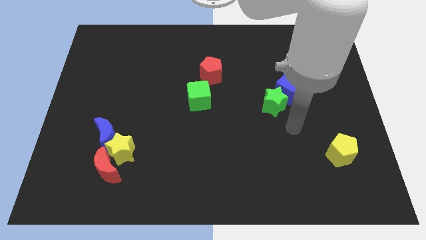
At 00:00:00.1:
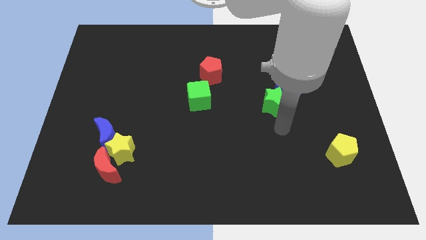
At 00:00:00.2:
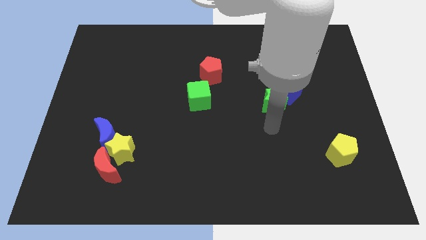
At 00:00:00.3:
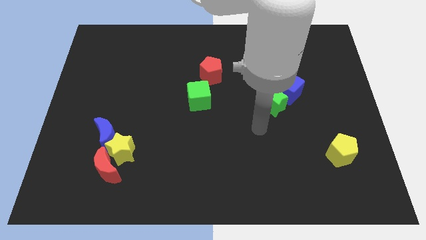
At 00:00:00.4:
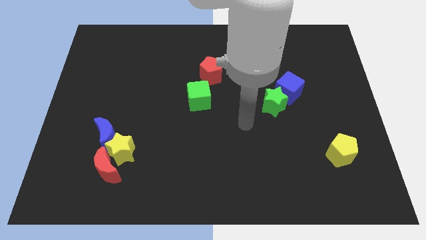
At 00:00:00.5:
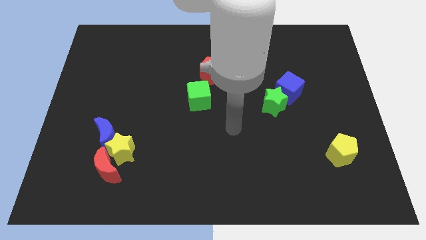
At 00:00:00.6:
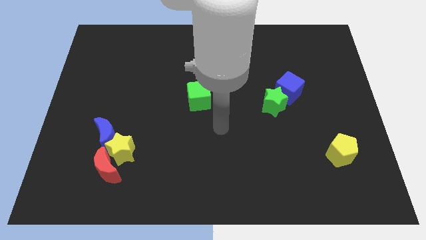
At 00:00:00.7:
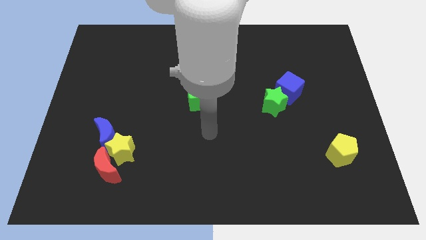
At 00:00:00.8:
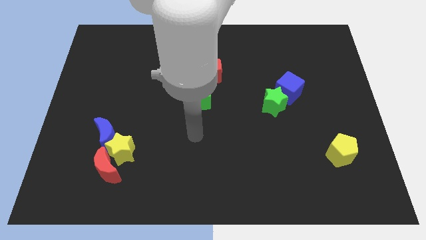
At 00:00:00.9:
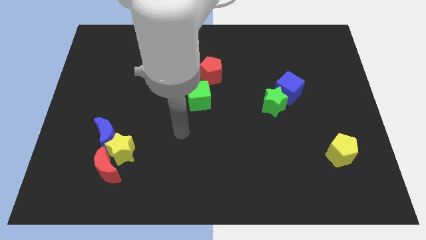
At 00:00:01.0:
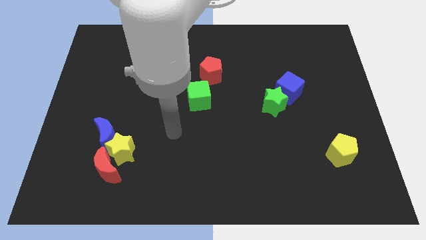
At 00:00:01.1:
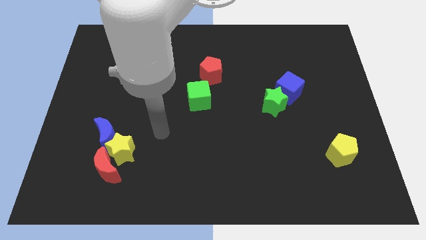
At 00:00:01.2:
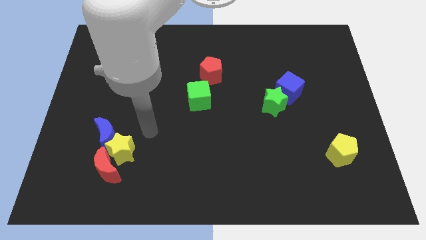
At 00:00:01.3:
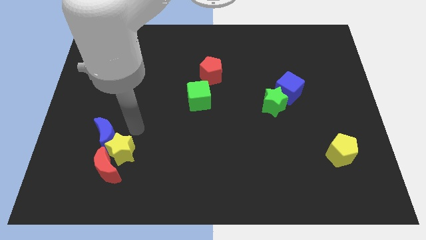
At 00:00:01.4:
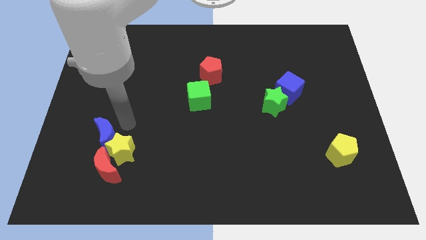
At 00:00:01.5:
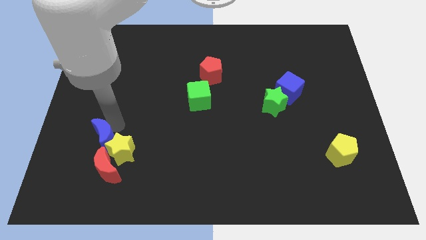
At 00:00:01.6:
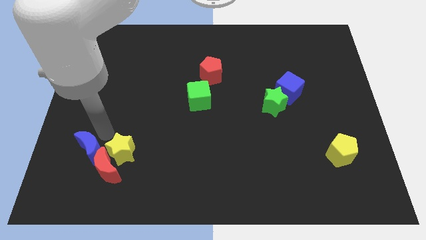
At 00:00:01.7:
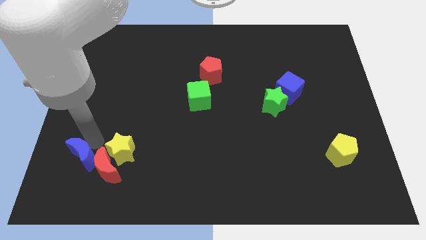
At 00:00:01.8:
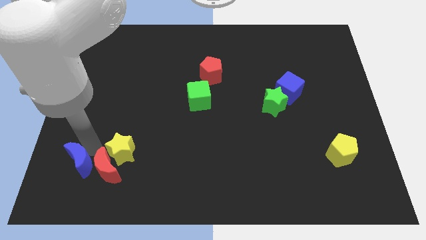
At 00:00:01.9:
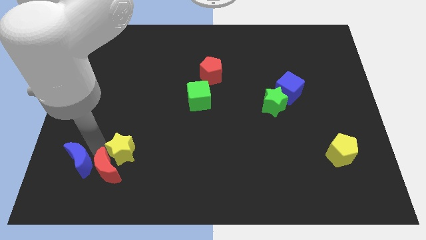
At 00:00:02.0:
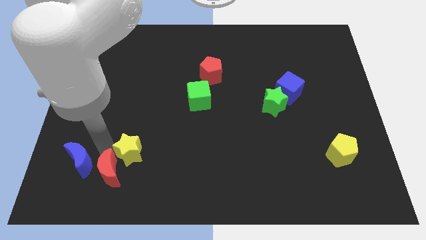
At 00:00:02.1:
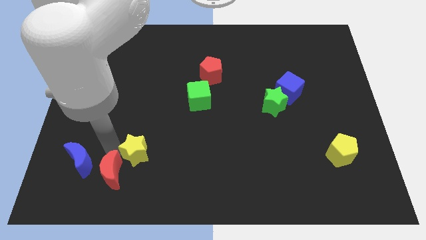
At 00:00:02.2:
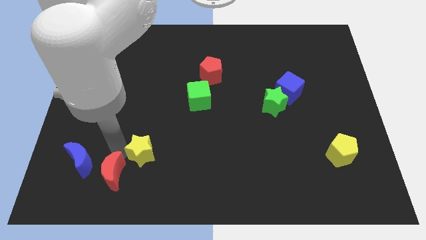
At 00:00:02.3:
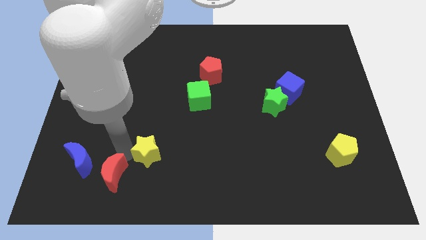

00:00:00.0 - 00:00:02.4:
pull the yellow star apart from the red moon and blue moon

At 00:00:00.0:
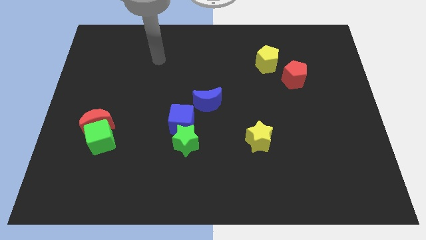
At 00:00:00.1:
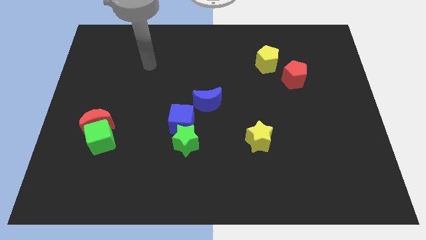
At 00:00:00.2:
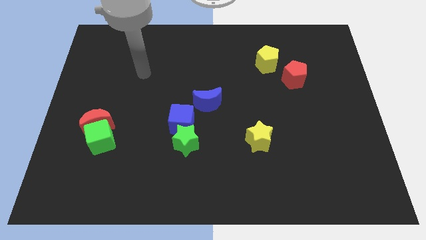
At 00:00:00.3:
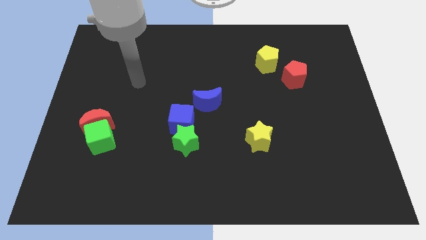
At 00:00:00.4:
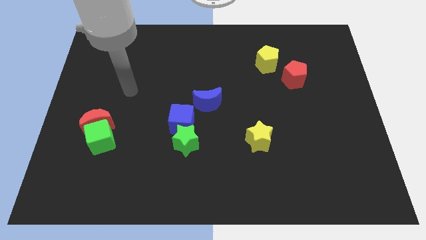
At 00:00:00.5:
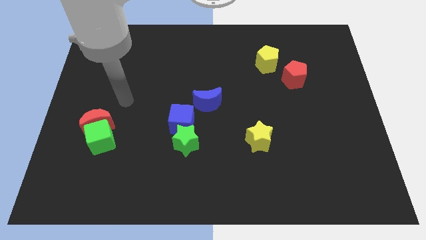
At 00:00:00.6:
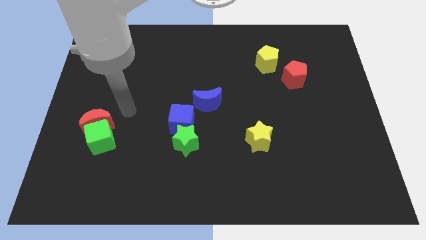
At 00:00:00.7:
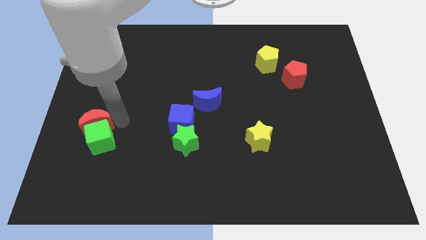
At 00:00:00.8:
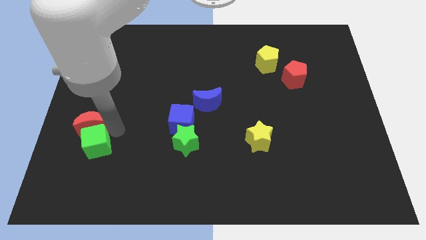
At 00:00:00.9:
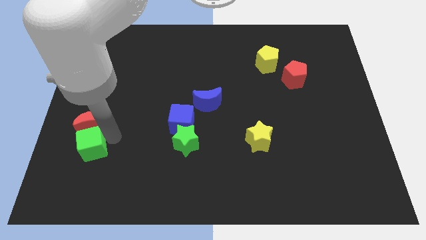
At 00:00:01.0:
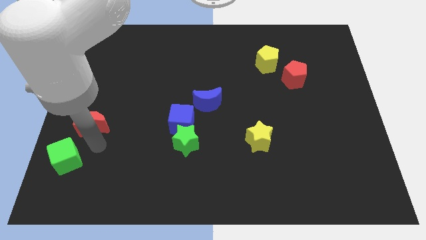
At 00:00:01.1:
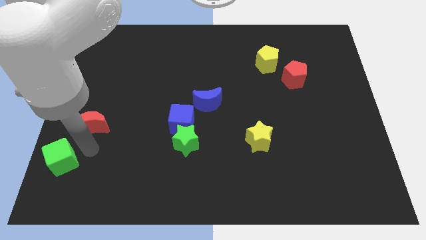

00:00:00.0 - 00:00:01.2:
pull the red moon apart from the green cube

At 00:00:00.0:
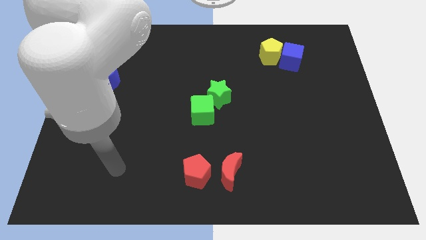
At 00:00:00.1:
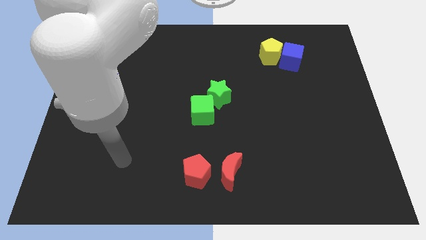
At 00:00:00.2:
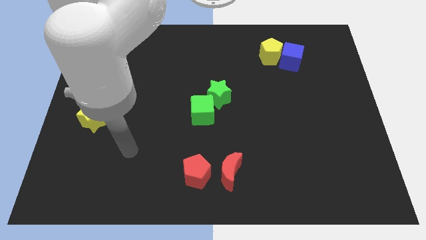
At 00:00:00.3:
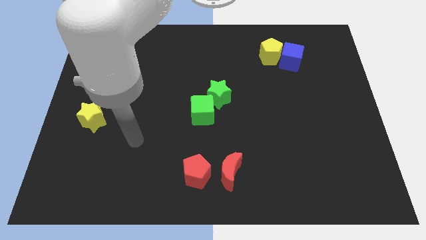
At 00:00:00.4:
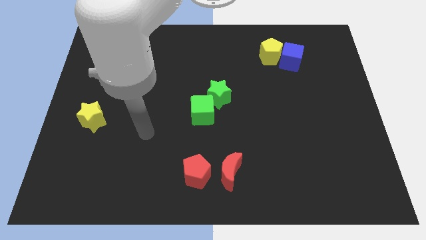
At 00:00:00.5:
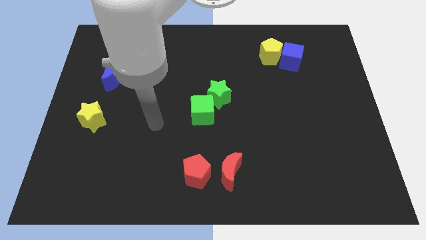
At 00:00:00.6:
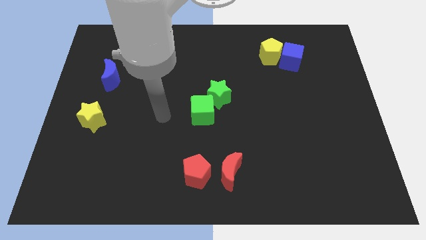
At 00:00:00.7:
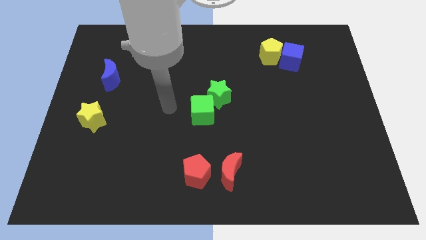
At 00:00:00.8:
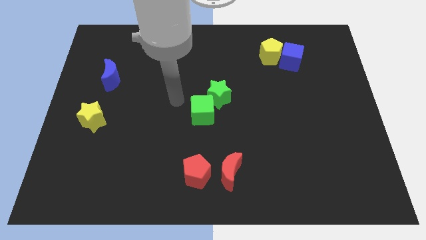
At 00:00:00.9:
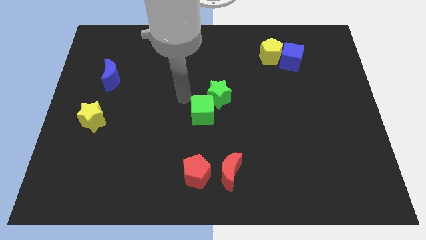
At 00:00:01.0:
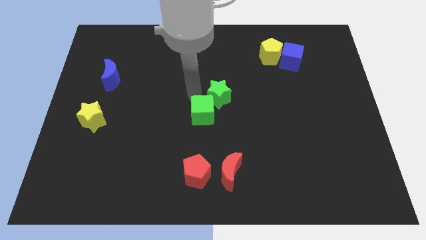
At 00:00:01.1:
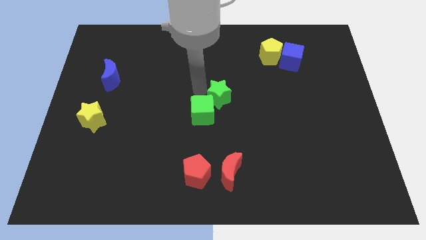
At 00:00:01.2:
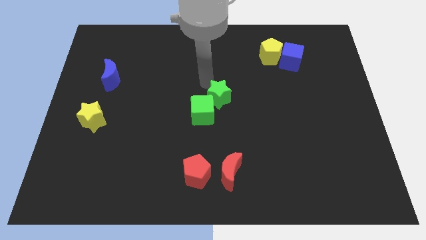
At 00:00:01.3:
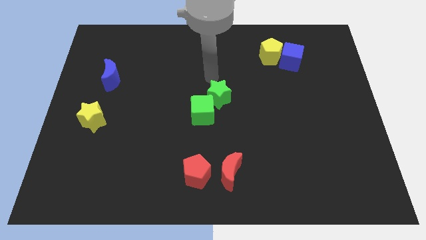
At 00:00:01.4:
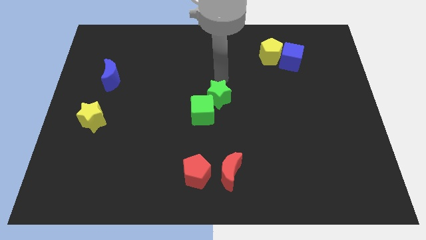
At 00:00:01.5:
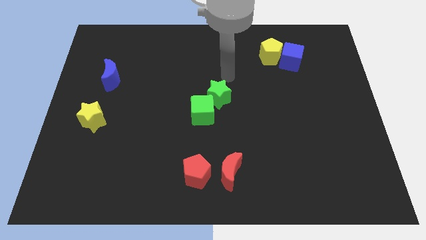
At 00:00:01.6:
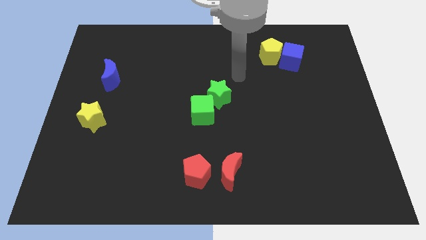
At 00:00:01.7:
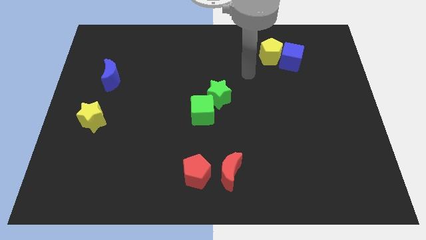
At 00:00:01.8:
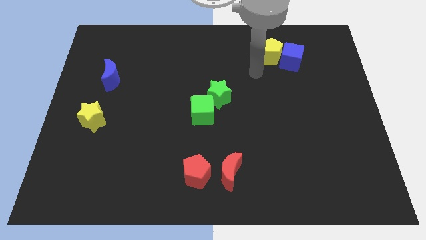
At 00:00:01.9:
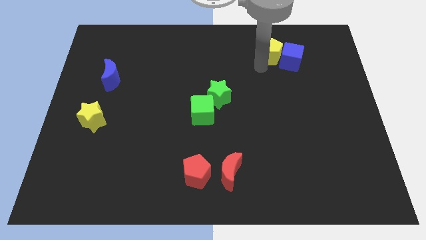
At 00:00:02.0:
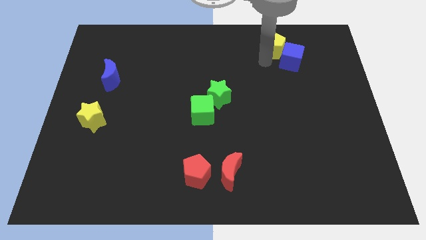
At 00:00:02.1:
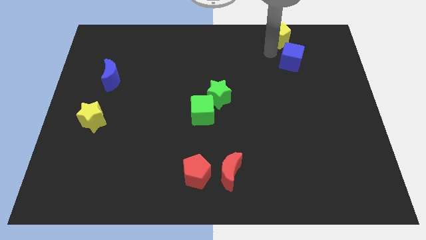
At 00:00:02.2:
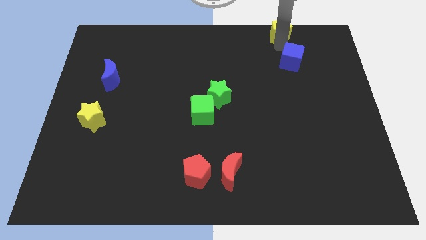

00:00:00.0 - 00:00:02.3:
separate the blue cube from the yellow pentagon

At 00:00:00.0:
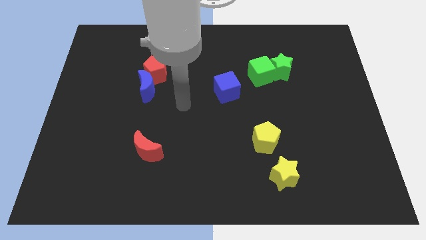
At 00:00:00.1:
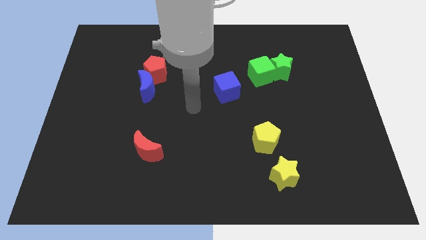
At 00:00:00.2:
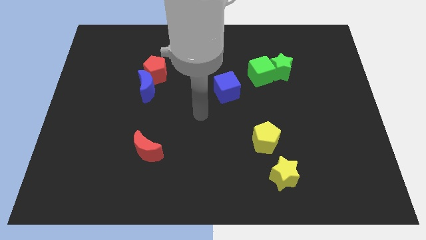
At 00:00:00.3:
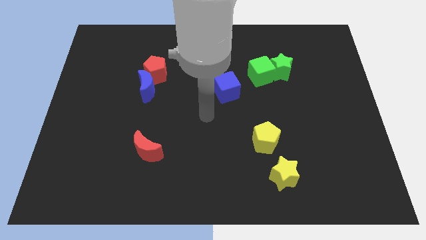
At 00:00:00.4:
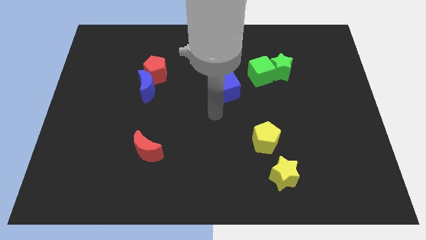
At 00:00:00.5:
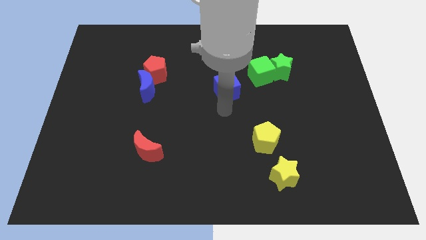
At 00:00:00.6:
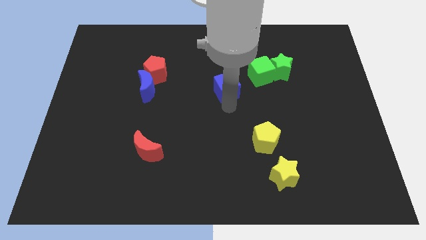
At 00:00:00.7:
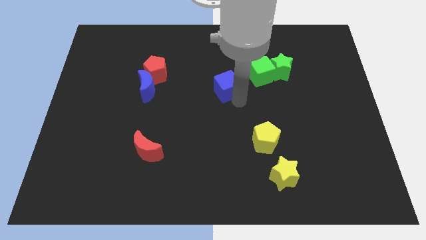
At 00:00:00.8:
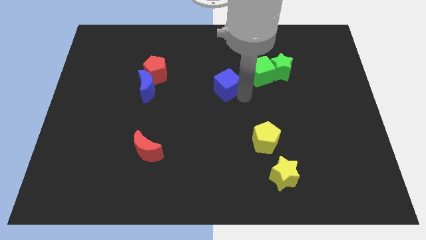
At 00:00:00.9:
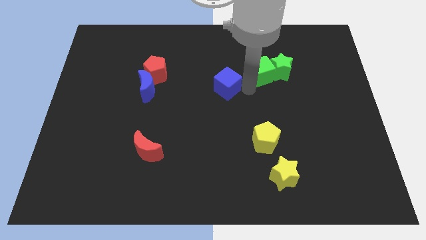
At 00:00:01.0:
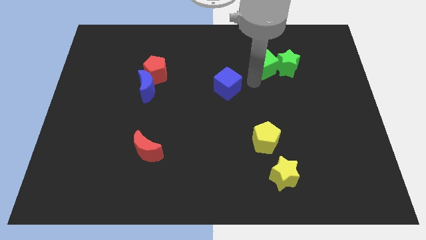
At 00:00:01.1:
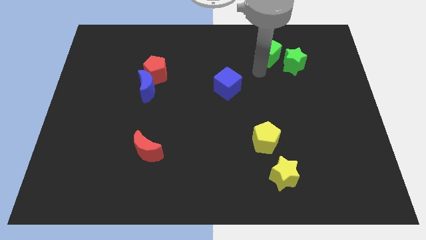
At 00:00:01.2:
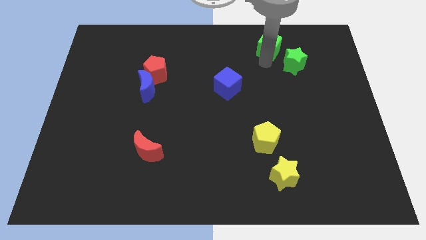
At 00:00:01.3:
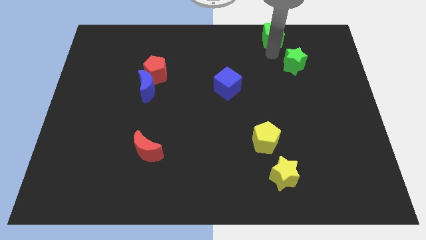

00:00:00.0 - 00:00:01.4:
move the green star away from the green cube

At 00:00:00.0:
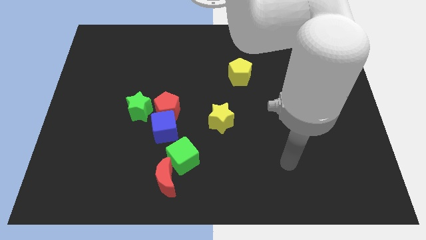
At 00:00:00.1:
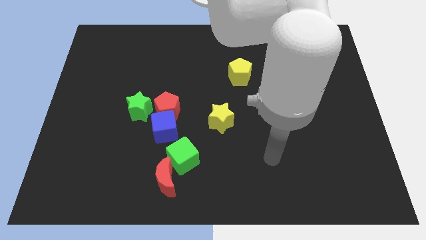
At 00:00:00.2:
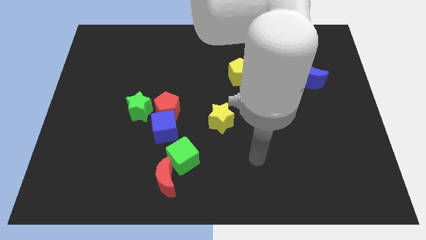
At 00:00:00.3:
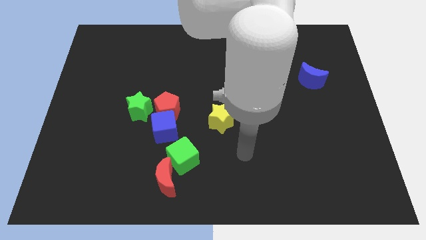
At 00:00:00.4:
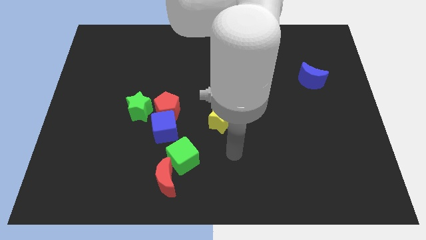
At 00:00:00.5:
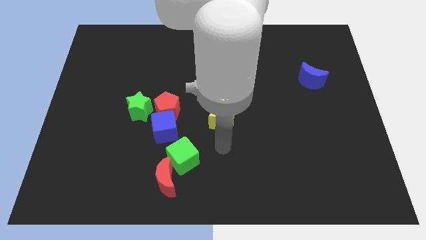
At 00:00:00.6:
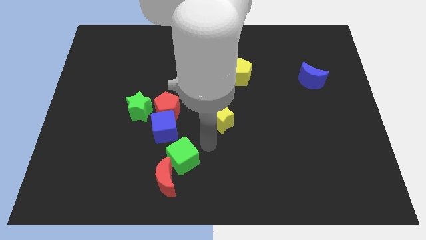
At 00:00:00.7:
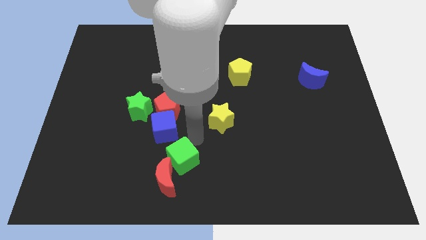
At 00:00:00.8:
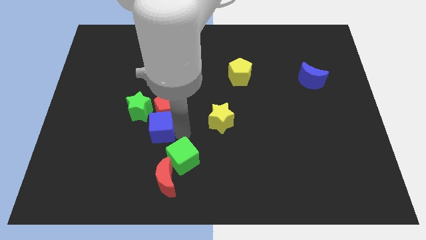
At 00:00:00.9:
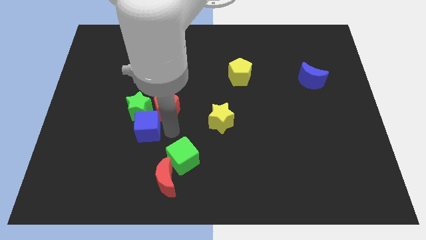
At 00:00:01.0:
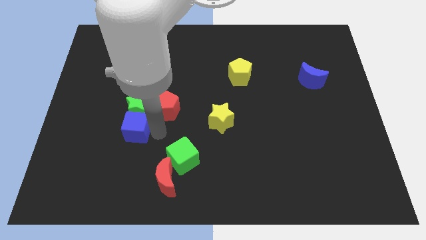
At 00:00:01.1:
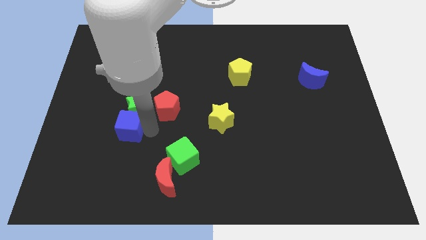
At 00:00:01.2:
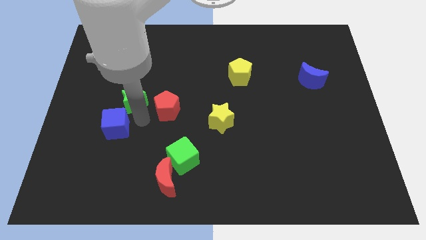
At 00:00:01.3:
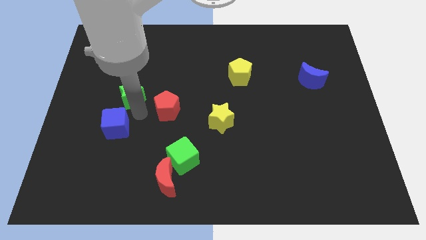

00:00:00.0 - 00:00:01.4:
move the red pentagon away from the blue cube and green star

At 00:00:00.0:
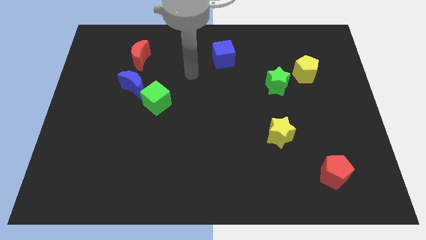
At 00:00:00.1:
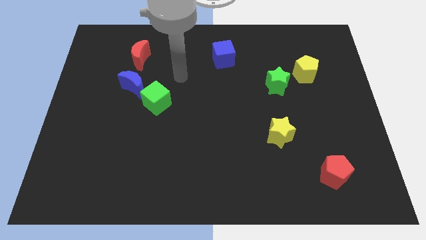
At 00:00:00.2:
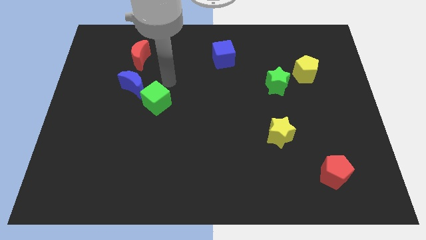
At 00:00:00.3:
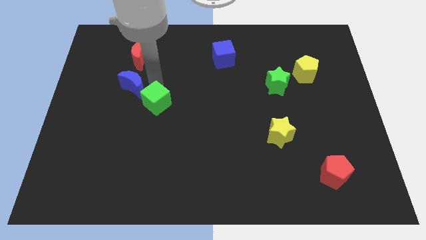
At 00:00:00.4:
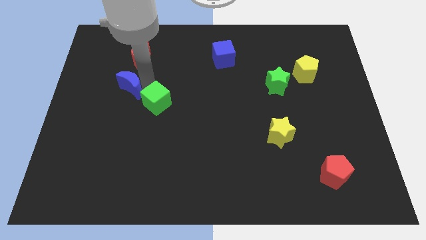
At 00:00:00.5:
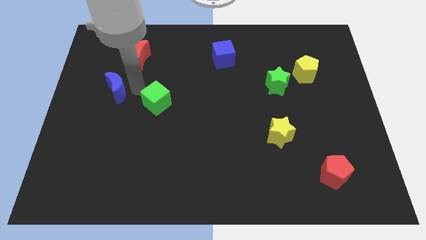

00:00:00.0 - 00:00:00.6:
move the green cube away from the blue moon
